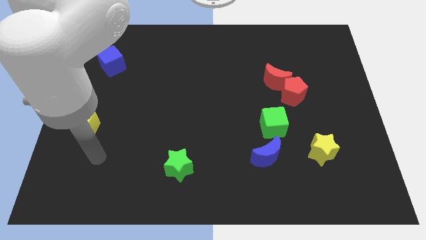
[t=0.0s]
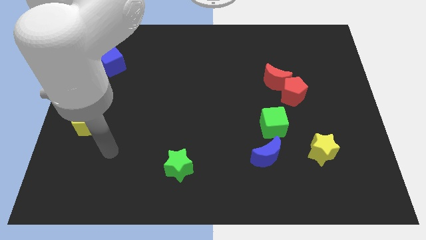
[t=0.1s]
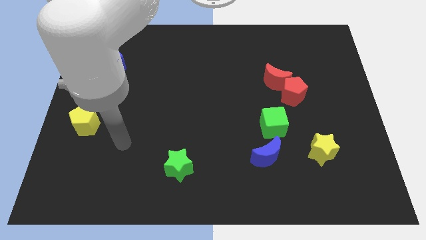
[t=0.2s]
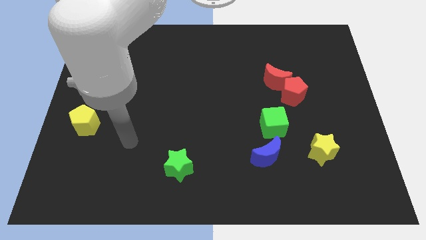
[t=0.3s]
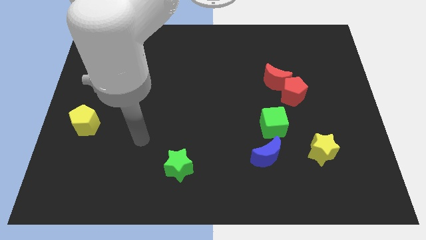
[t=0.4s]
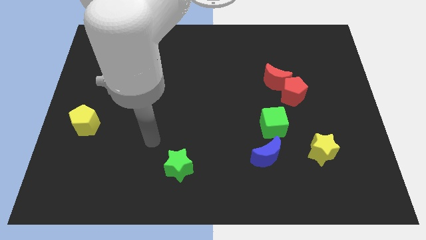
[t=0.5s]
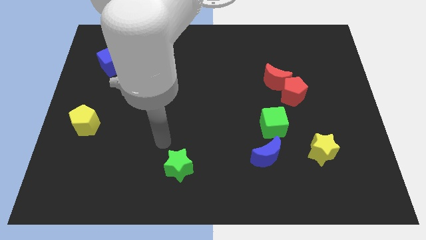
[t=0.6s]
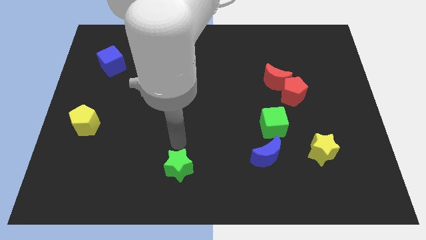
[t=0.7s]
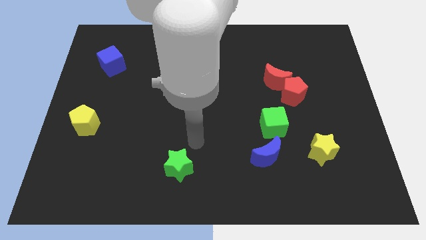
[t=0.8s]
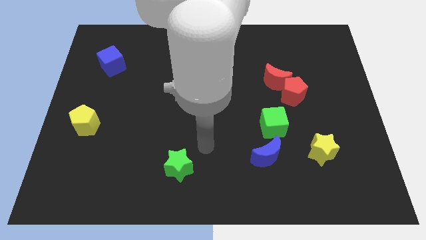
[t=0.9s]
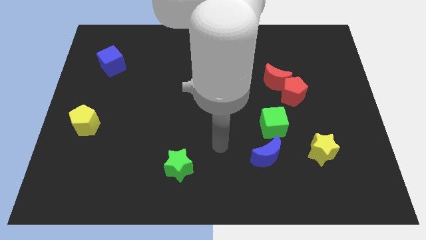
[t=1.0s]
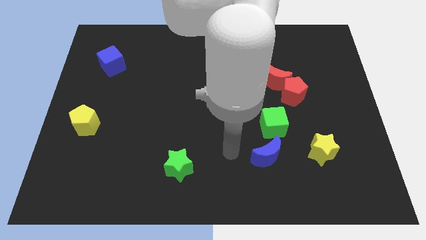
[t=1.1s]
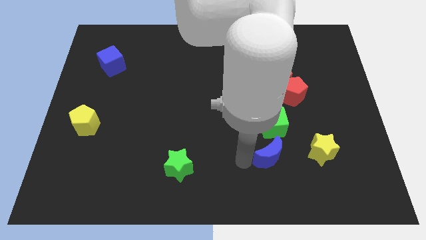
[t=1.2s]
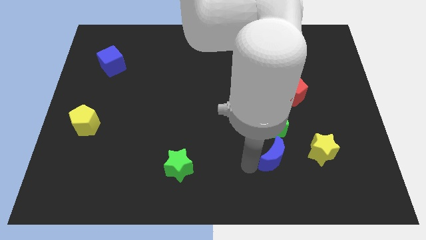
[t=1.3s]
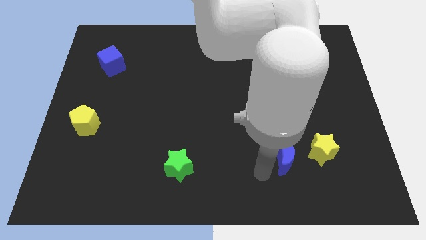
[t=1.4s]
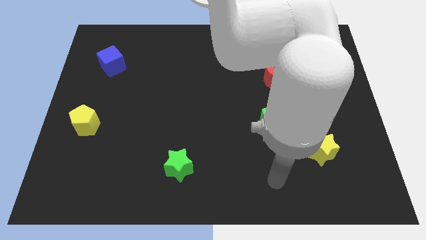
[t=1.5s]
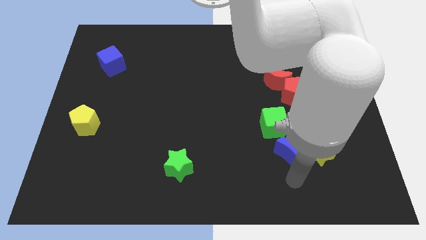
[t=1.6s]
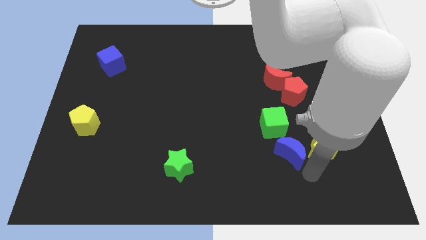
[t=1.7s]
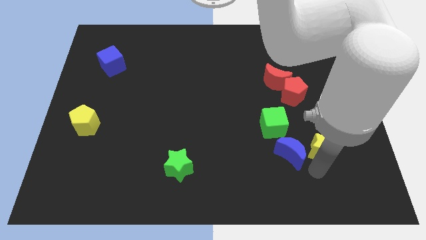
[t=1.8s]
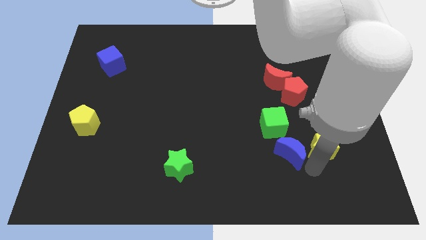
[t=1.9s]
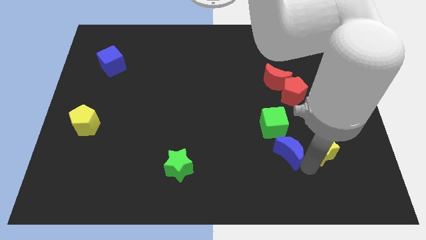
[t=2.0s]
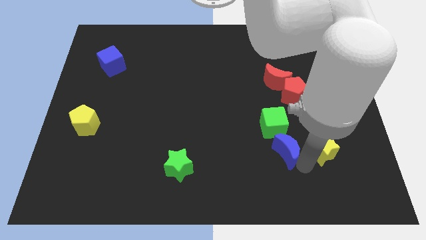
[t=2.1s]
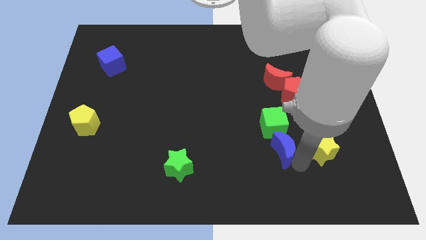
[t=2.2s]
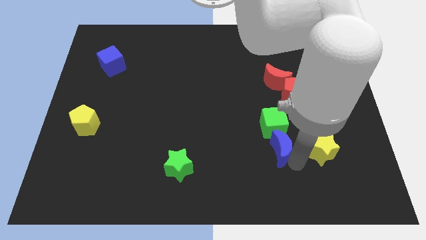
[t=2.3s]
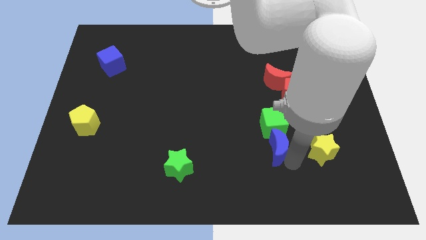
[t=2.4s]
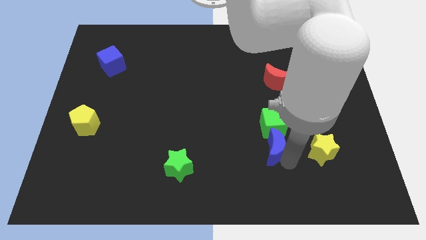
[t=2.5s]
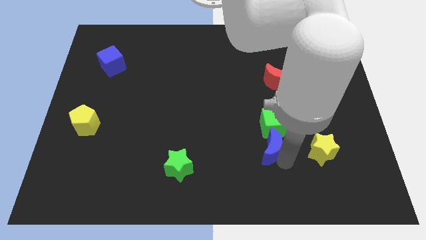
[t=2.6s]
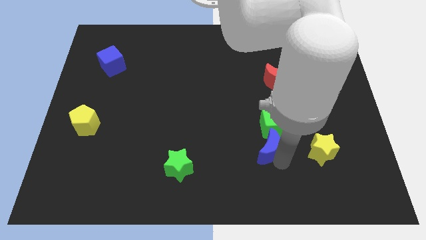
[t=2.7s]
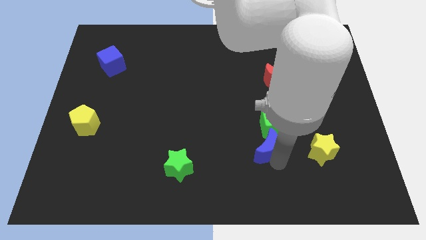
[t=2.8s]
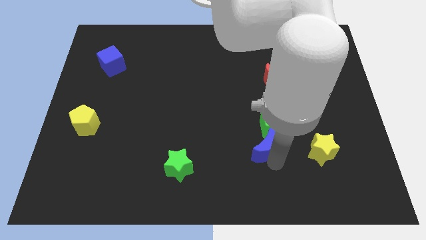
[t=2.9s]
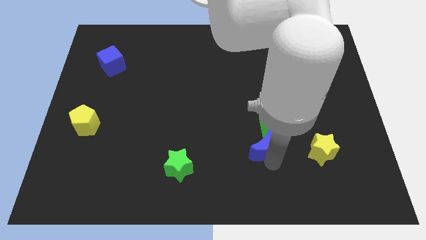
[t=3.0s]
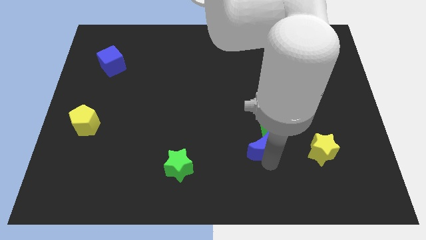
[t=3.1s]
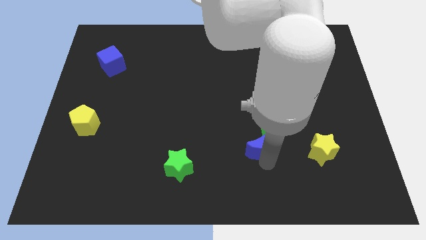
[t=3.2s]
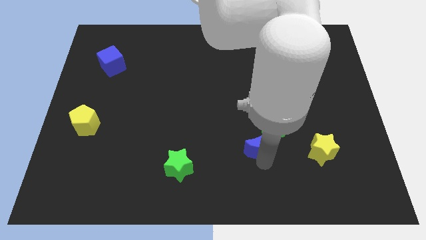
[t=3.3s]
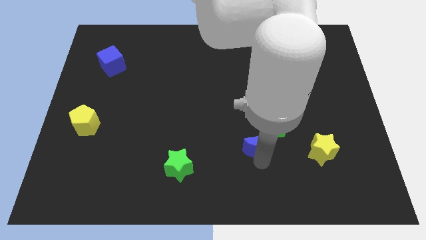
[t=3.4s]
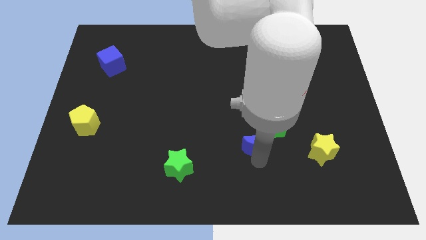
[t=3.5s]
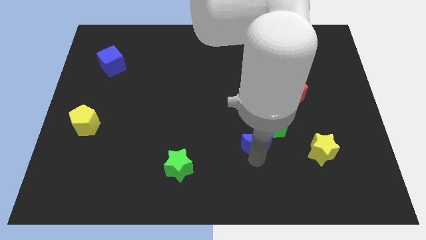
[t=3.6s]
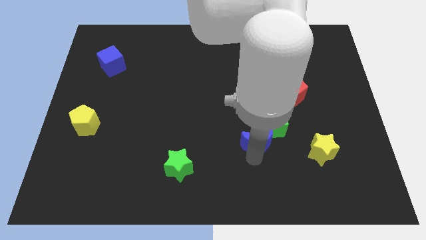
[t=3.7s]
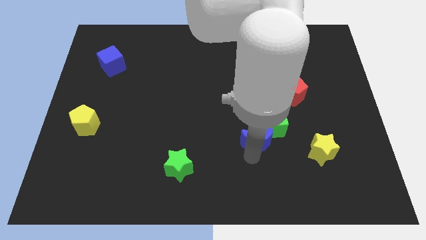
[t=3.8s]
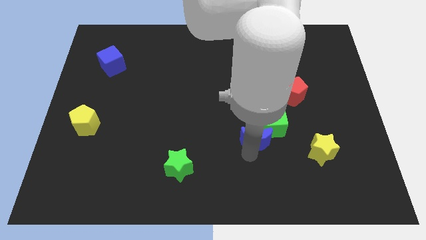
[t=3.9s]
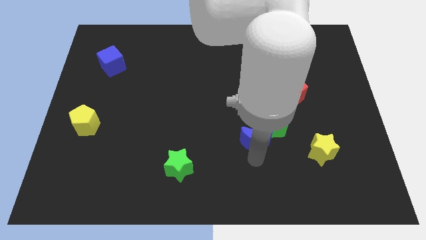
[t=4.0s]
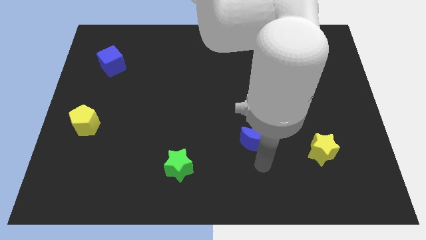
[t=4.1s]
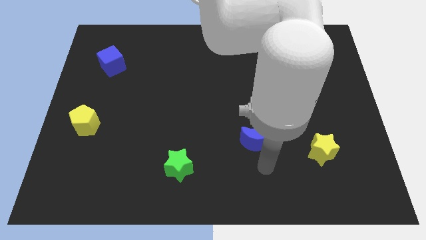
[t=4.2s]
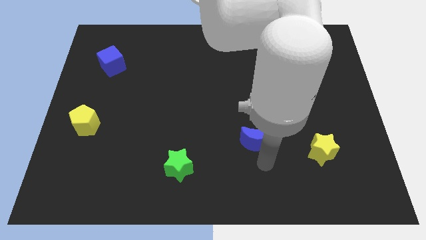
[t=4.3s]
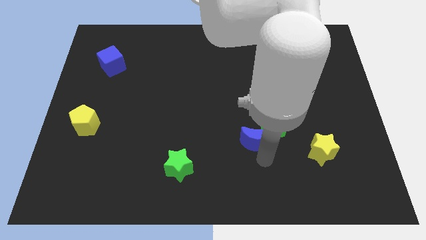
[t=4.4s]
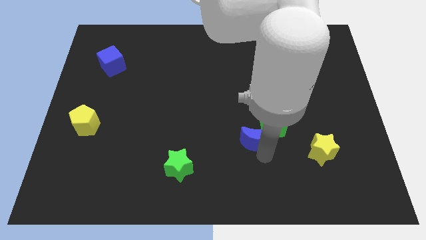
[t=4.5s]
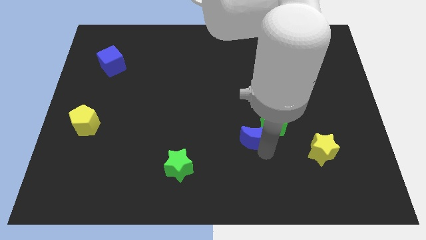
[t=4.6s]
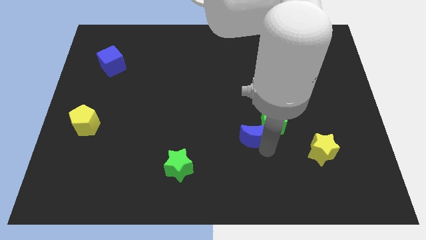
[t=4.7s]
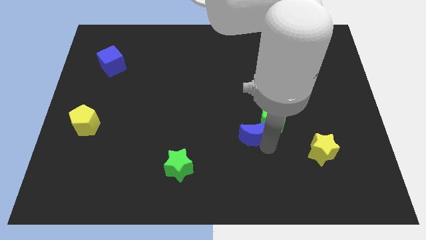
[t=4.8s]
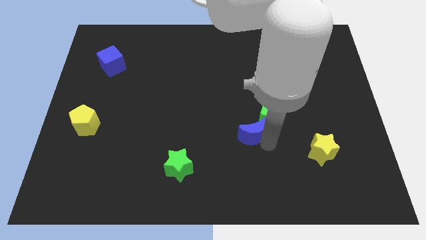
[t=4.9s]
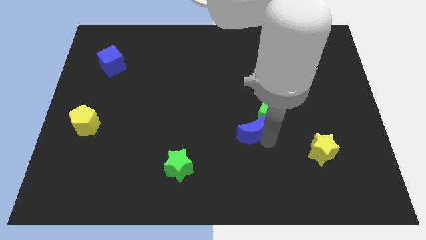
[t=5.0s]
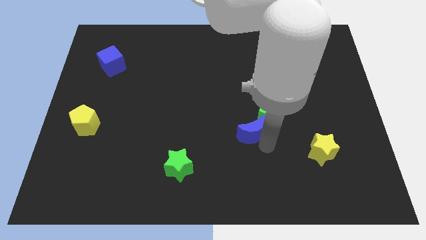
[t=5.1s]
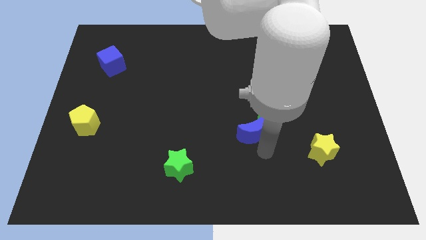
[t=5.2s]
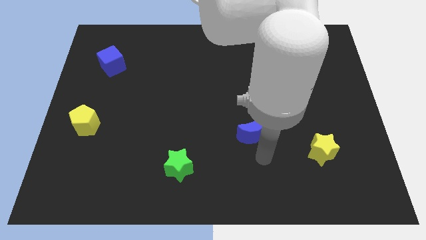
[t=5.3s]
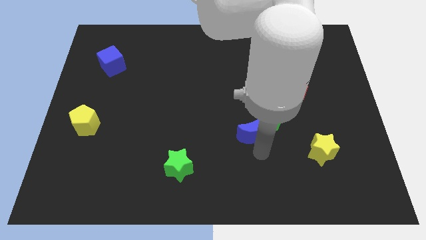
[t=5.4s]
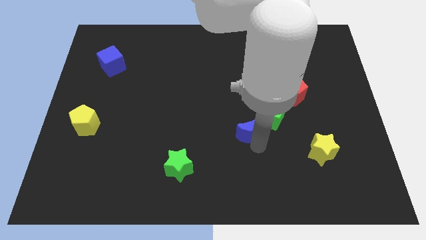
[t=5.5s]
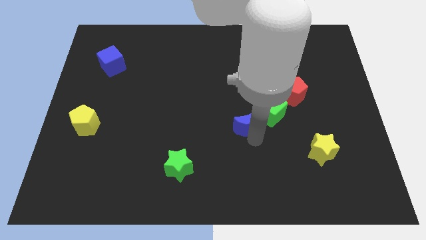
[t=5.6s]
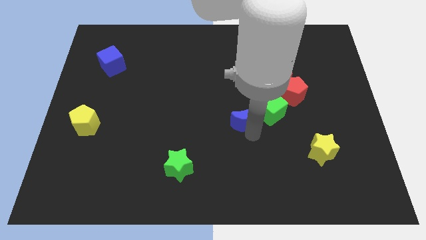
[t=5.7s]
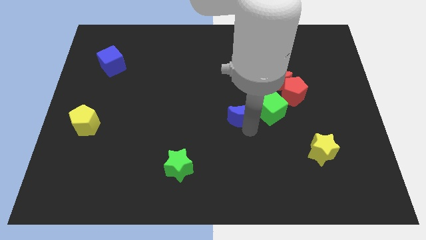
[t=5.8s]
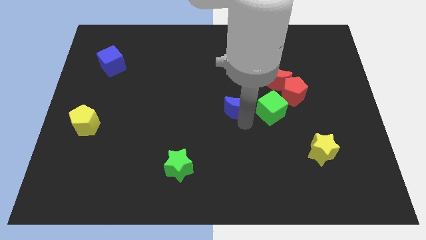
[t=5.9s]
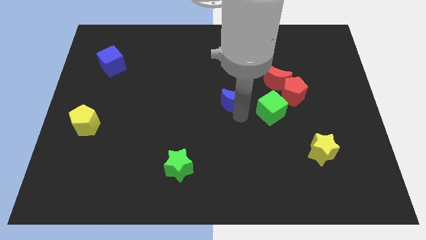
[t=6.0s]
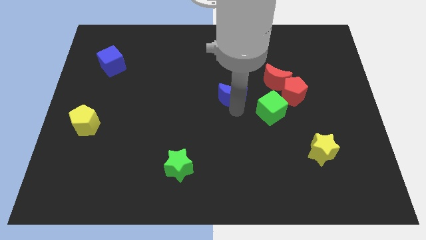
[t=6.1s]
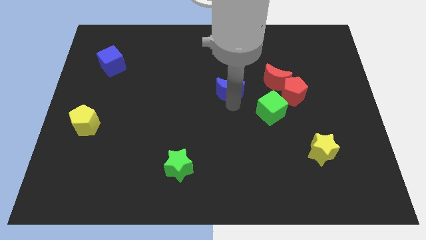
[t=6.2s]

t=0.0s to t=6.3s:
push the blue moon just left of the red moon

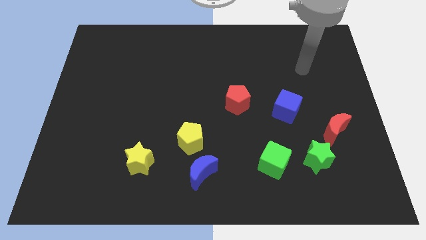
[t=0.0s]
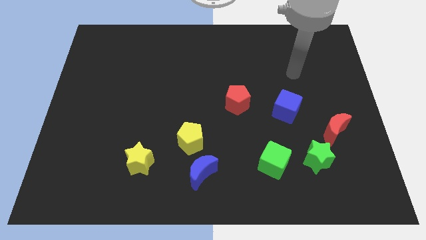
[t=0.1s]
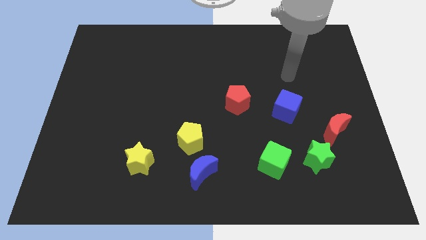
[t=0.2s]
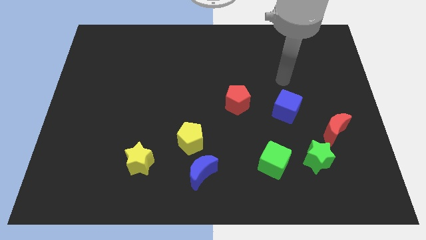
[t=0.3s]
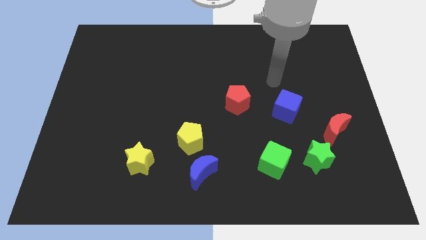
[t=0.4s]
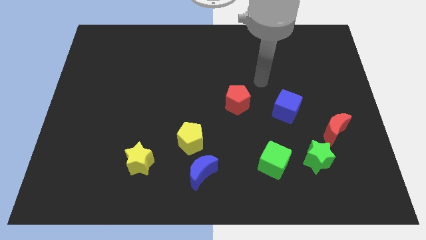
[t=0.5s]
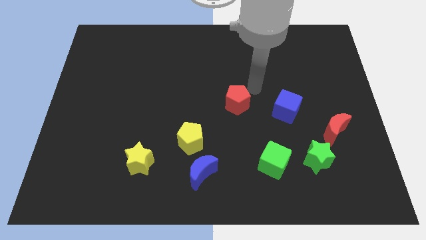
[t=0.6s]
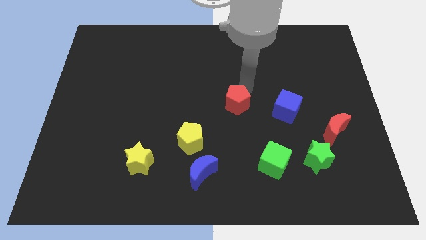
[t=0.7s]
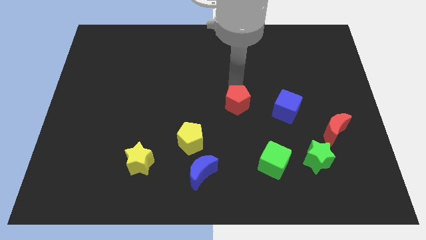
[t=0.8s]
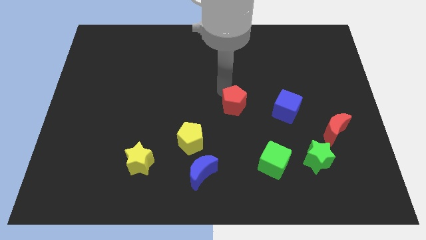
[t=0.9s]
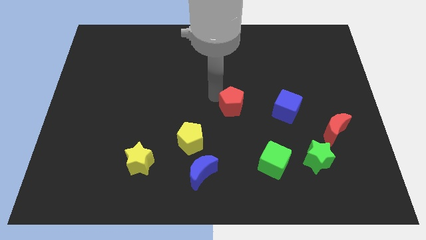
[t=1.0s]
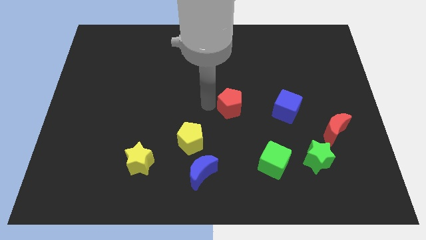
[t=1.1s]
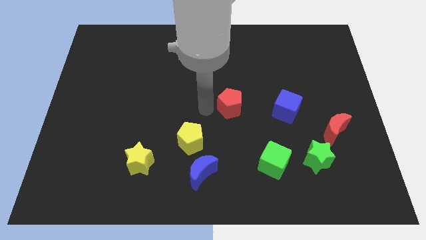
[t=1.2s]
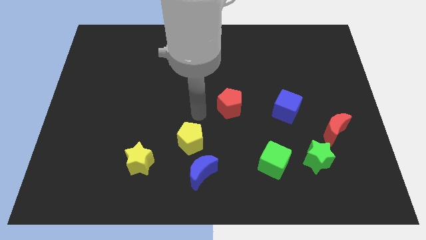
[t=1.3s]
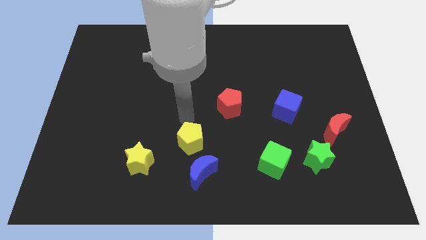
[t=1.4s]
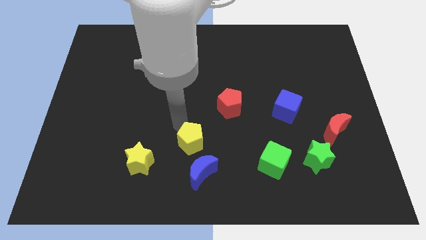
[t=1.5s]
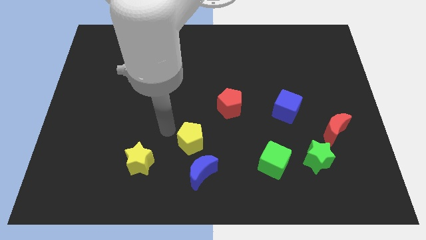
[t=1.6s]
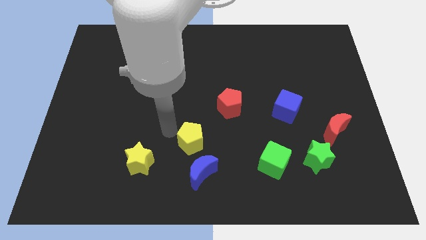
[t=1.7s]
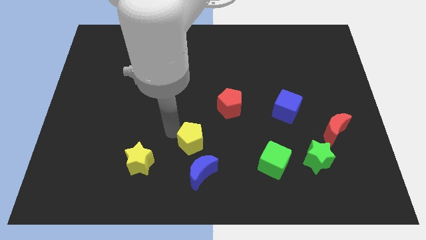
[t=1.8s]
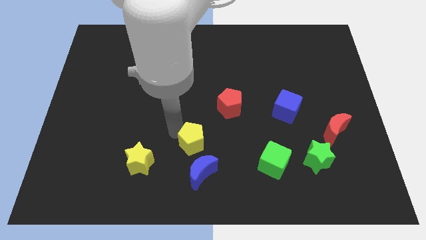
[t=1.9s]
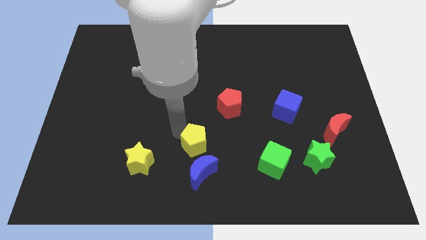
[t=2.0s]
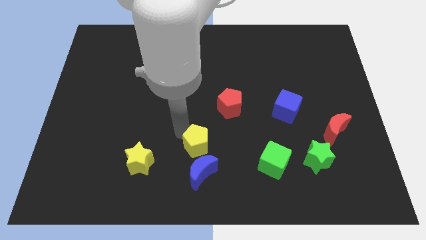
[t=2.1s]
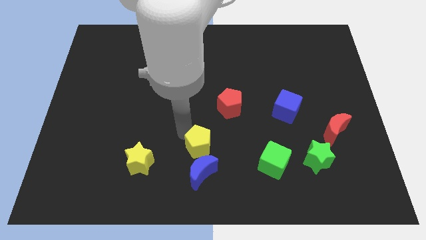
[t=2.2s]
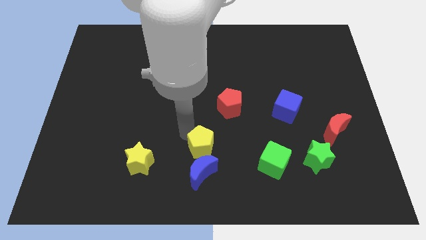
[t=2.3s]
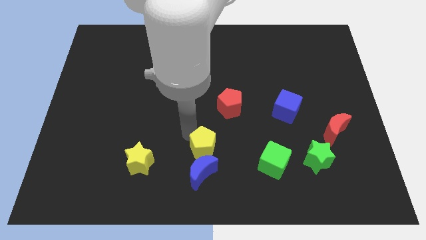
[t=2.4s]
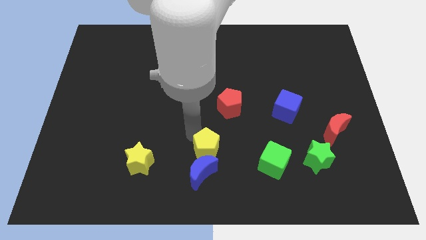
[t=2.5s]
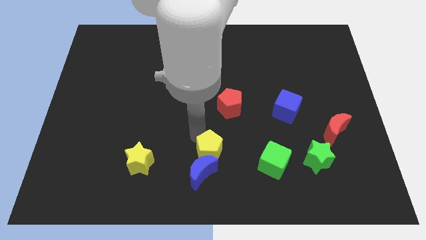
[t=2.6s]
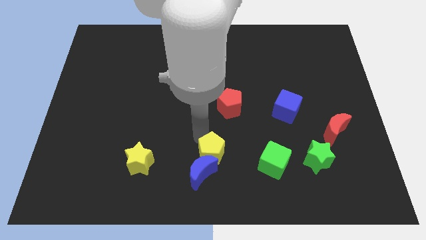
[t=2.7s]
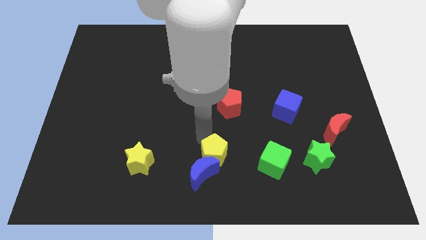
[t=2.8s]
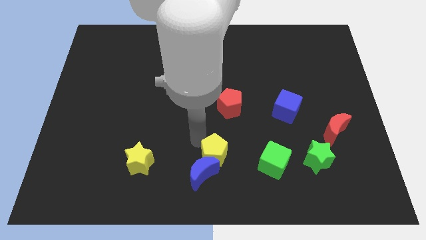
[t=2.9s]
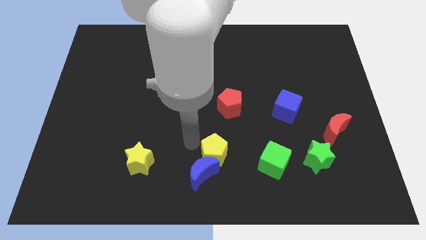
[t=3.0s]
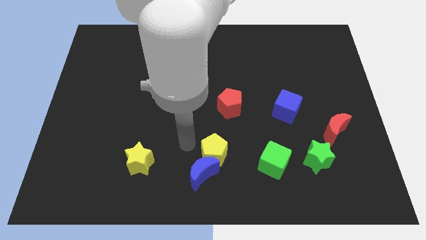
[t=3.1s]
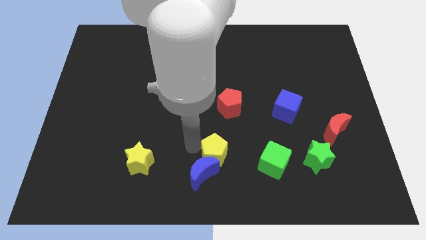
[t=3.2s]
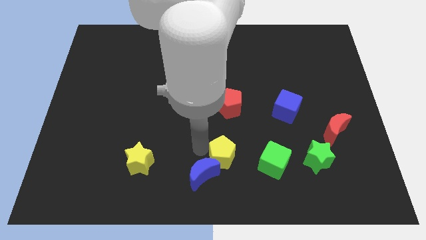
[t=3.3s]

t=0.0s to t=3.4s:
slide the yellow pentagon to the right side of the blue moon
